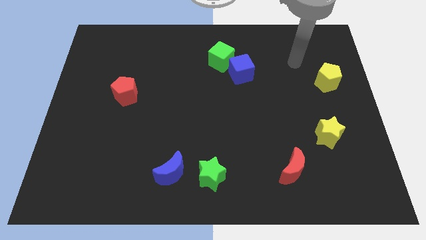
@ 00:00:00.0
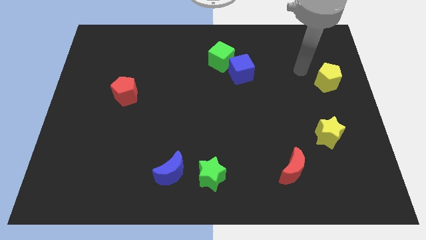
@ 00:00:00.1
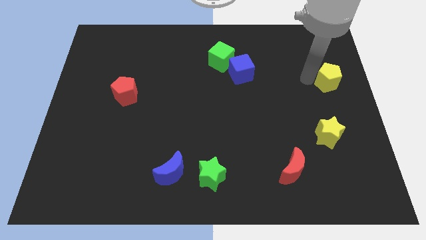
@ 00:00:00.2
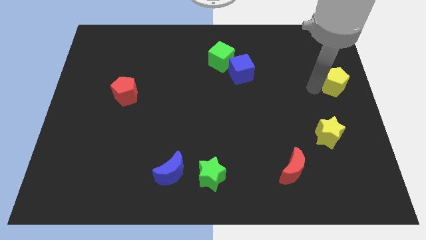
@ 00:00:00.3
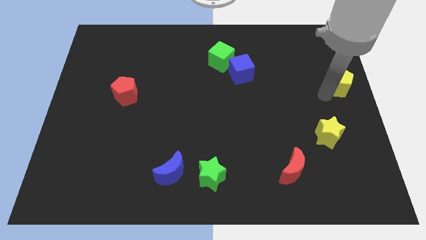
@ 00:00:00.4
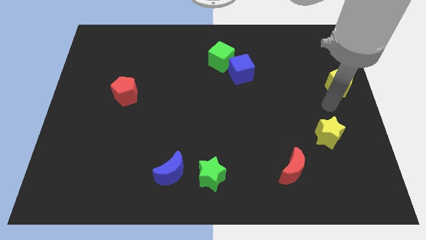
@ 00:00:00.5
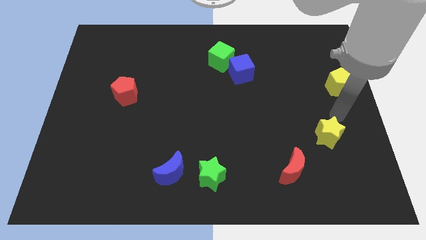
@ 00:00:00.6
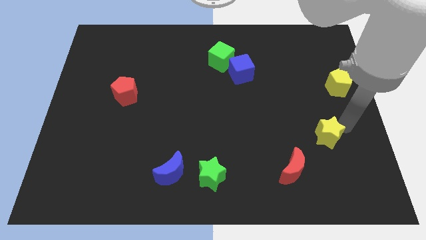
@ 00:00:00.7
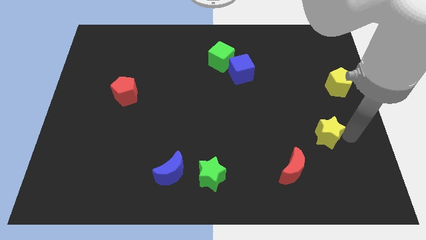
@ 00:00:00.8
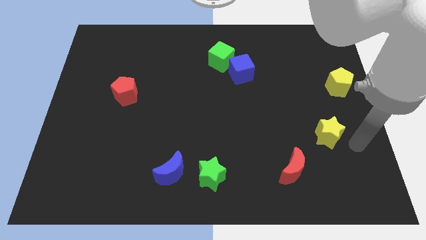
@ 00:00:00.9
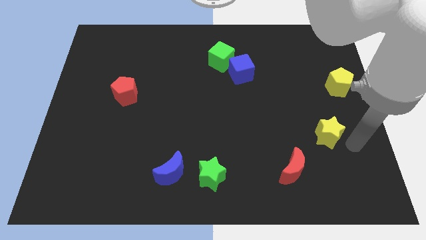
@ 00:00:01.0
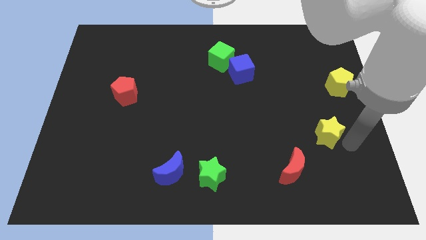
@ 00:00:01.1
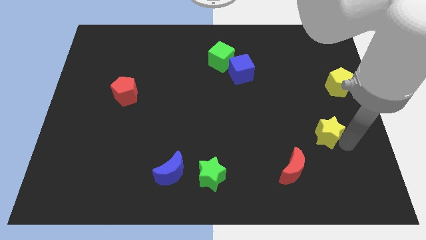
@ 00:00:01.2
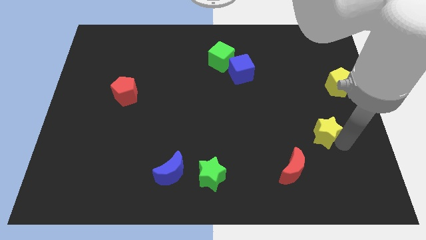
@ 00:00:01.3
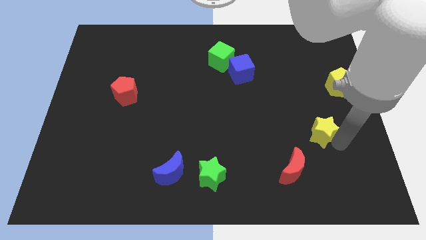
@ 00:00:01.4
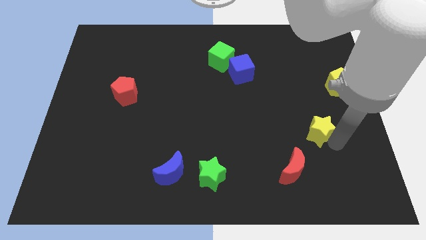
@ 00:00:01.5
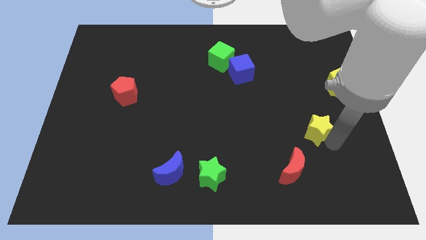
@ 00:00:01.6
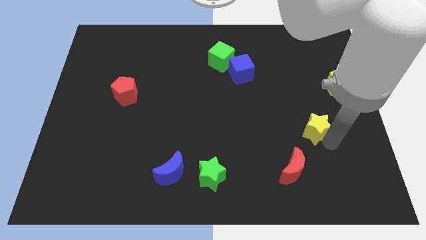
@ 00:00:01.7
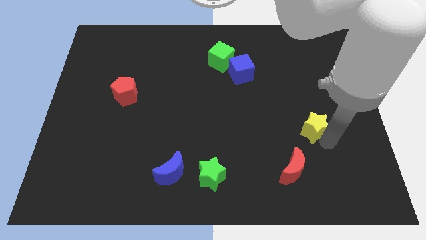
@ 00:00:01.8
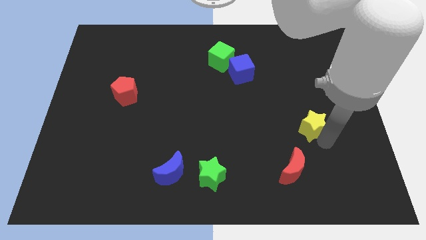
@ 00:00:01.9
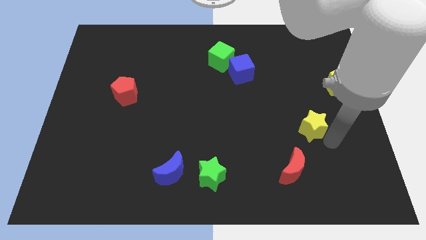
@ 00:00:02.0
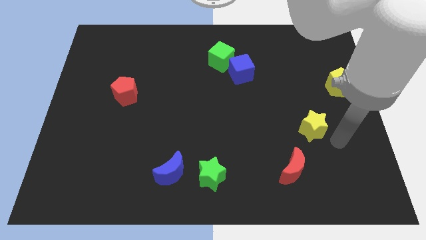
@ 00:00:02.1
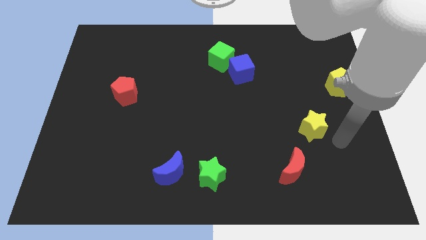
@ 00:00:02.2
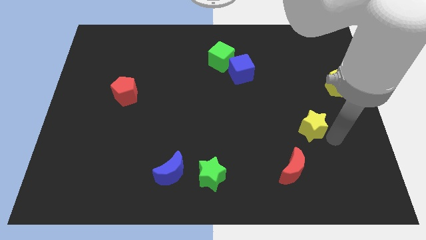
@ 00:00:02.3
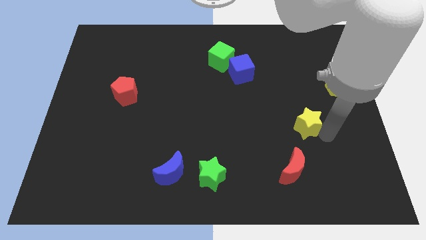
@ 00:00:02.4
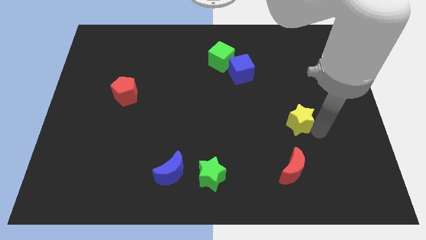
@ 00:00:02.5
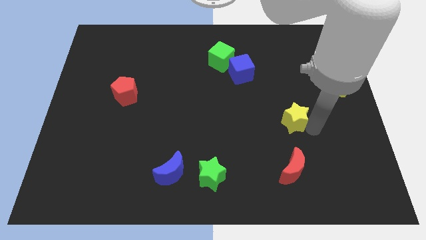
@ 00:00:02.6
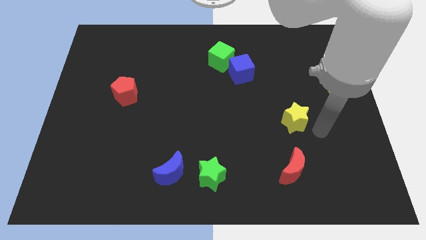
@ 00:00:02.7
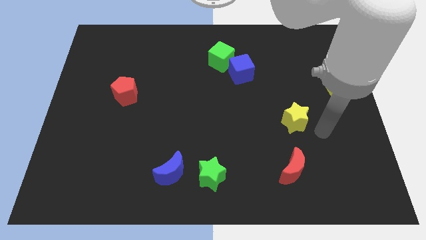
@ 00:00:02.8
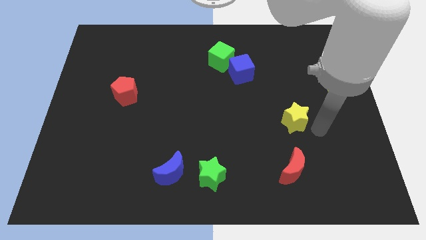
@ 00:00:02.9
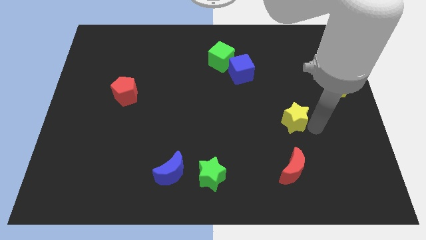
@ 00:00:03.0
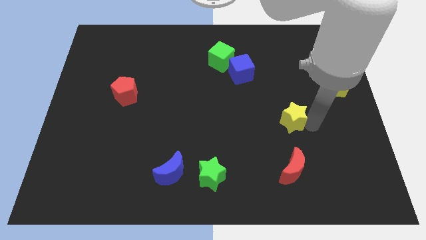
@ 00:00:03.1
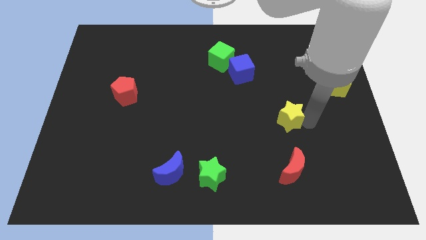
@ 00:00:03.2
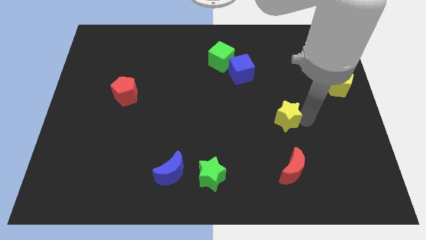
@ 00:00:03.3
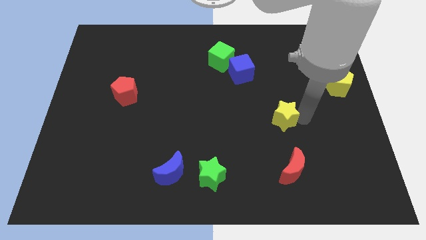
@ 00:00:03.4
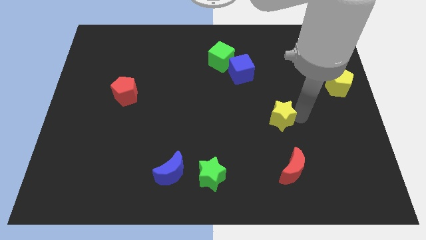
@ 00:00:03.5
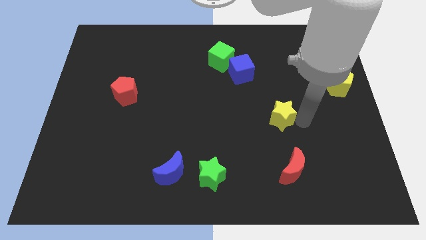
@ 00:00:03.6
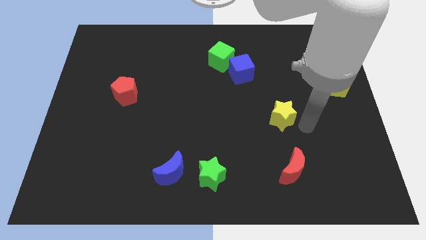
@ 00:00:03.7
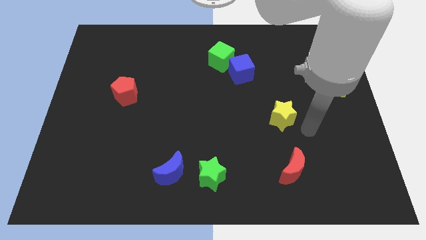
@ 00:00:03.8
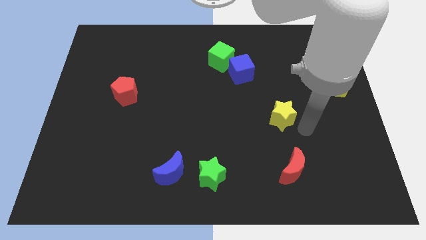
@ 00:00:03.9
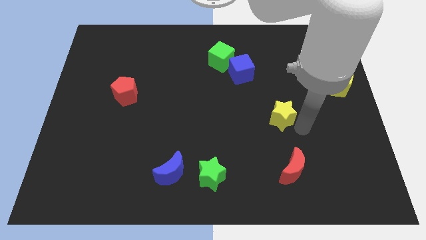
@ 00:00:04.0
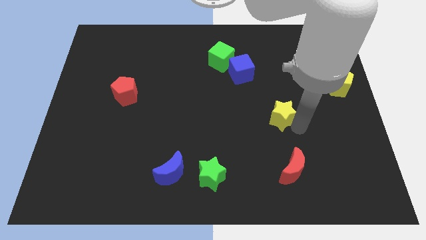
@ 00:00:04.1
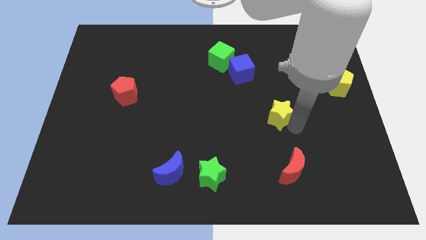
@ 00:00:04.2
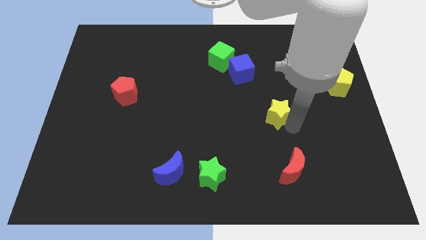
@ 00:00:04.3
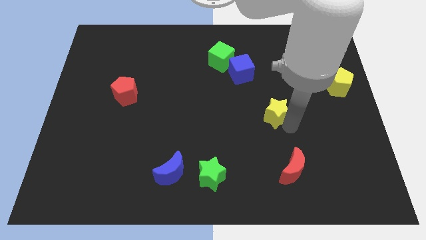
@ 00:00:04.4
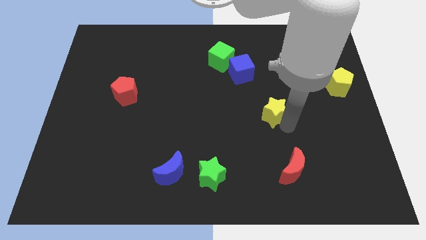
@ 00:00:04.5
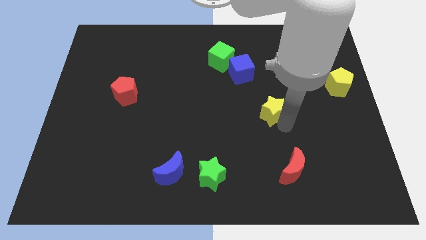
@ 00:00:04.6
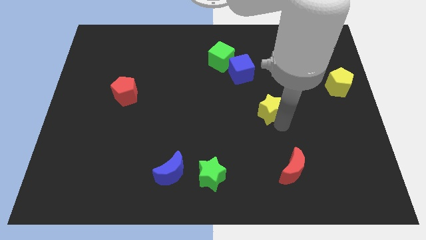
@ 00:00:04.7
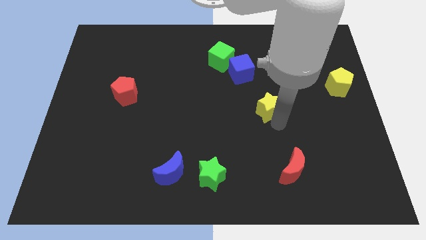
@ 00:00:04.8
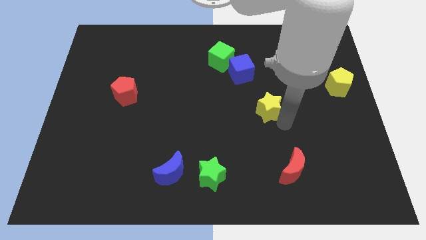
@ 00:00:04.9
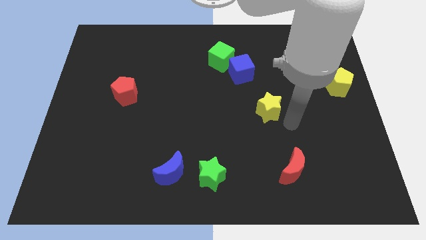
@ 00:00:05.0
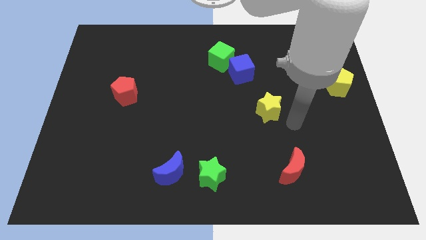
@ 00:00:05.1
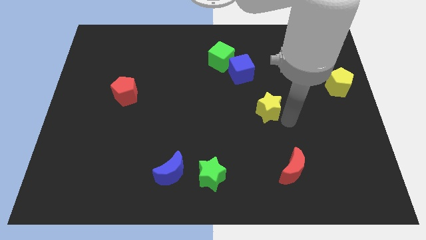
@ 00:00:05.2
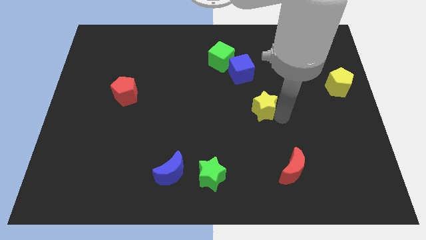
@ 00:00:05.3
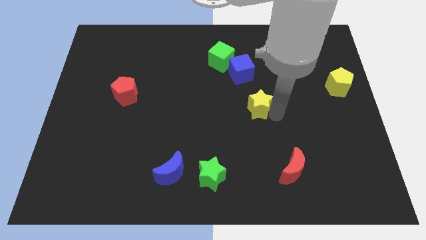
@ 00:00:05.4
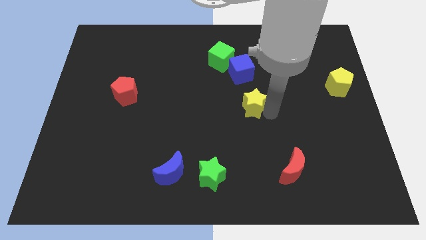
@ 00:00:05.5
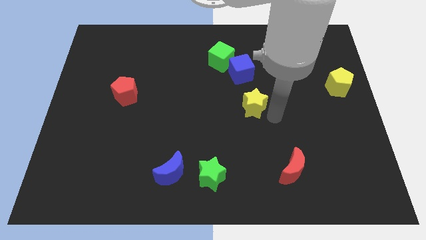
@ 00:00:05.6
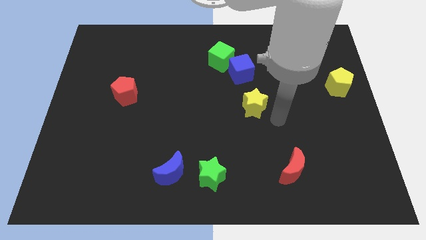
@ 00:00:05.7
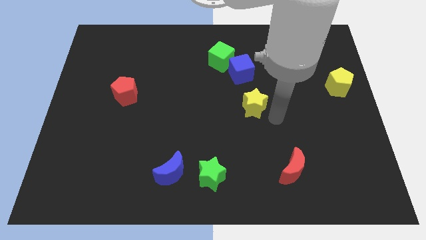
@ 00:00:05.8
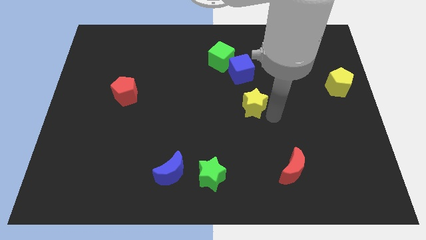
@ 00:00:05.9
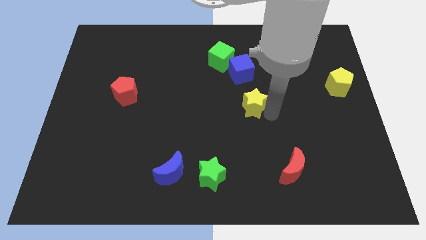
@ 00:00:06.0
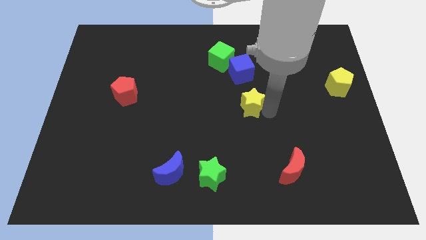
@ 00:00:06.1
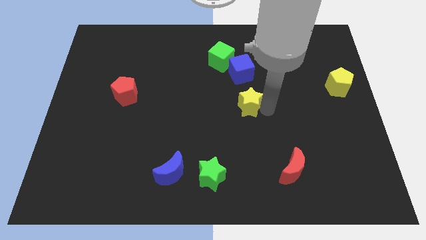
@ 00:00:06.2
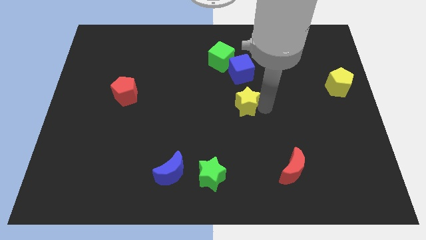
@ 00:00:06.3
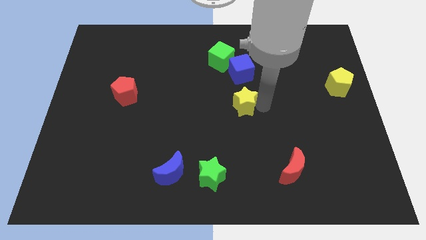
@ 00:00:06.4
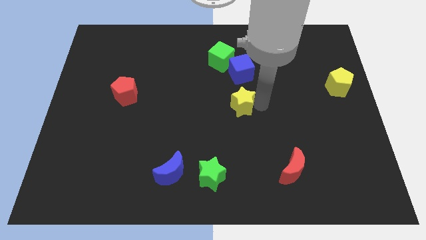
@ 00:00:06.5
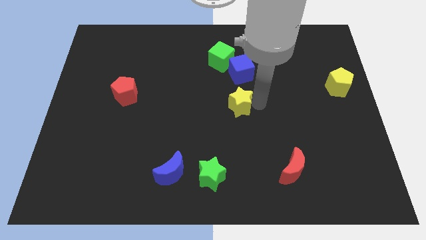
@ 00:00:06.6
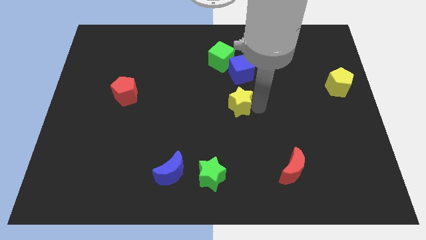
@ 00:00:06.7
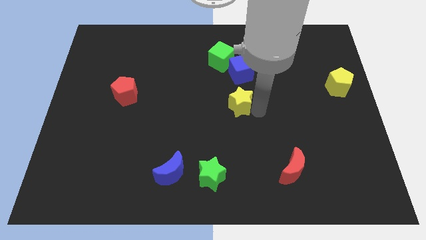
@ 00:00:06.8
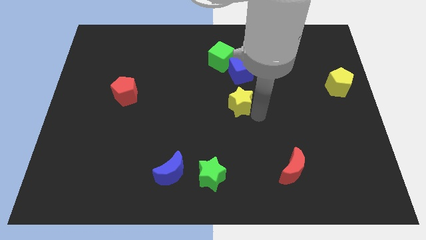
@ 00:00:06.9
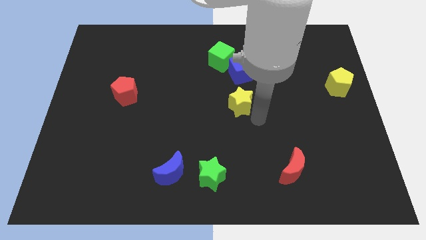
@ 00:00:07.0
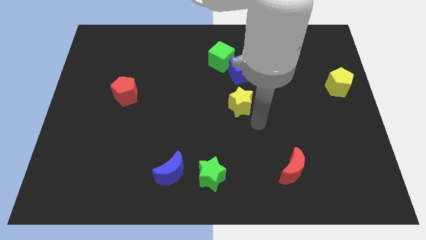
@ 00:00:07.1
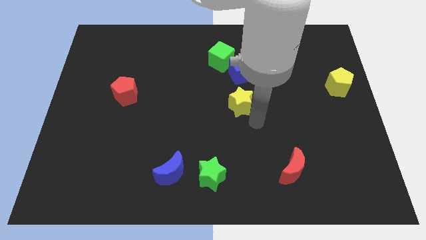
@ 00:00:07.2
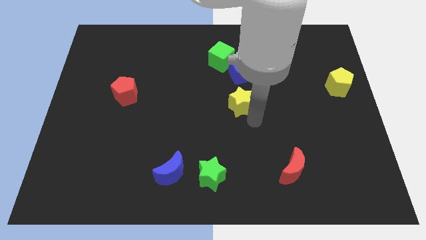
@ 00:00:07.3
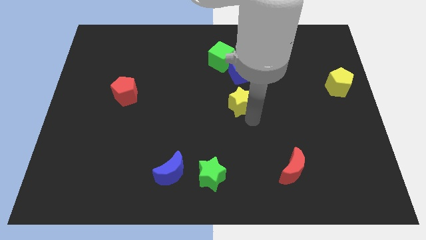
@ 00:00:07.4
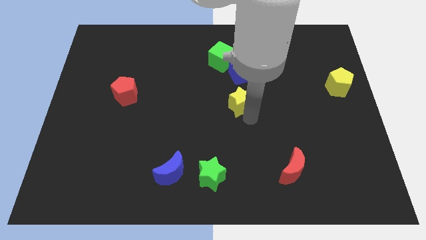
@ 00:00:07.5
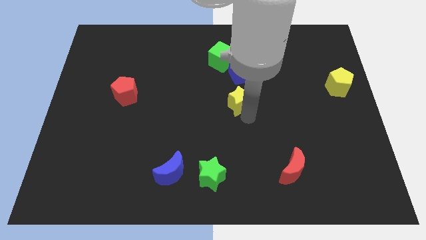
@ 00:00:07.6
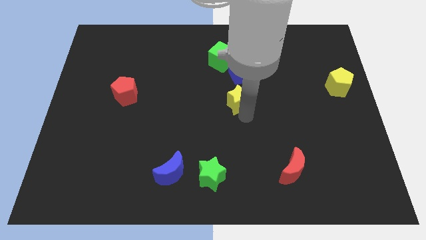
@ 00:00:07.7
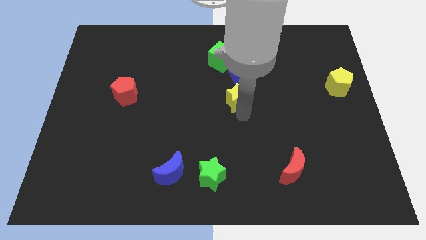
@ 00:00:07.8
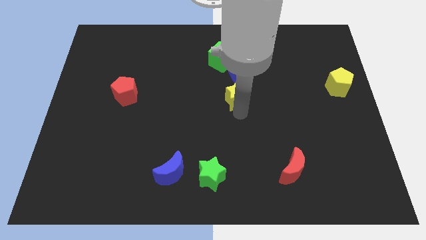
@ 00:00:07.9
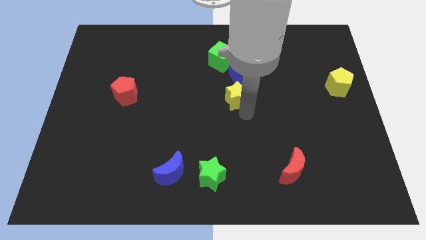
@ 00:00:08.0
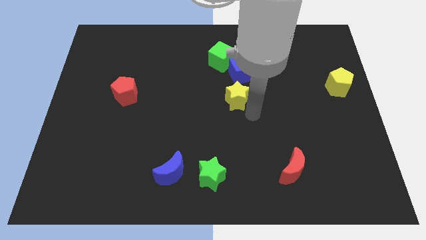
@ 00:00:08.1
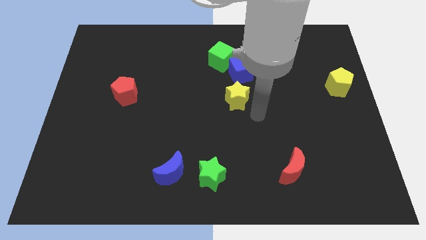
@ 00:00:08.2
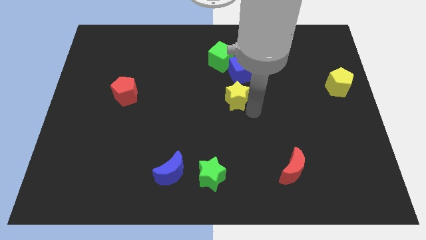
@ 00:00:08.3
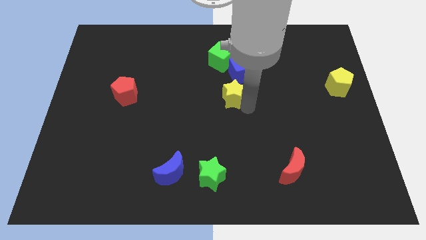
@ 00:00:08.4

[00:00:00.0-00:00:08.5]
push the yellow star diagonally down and to the left of the blue cube
